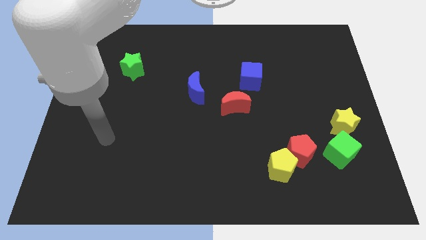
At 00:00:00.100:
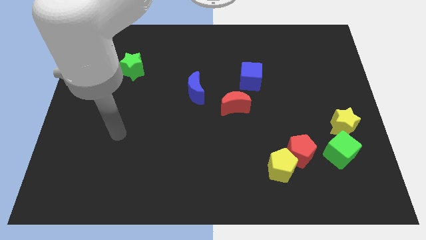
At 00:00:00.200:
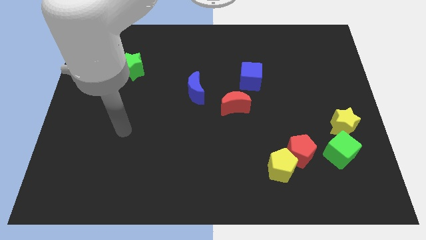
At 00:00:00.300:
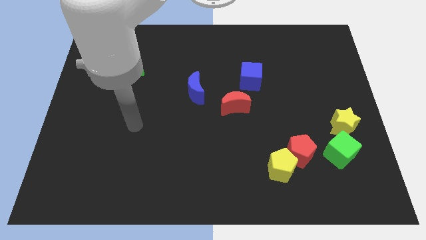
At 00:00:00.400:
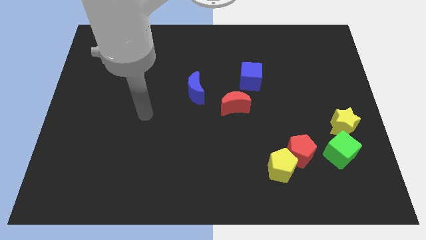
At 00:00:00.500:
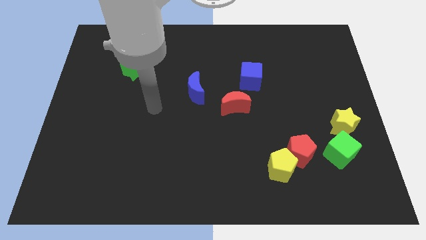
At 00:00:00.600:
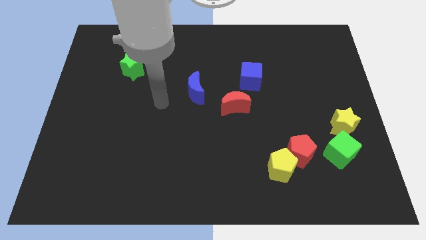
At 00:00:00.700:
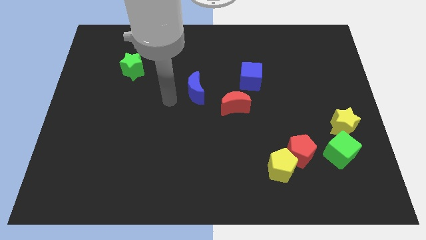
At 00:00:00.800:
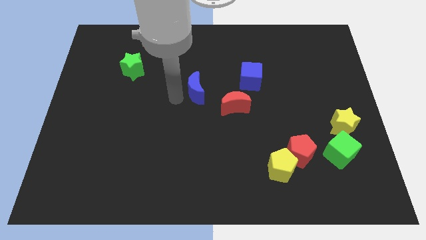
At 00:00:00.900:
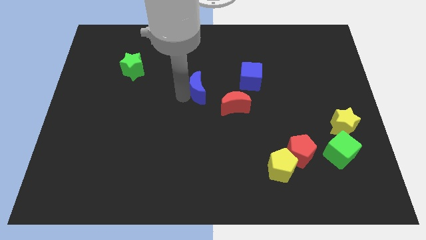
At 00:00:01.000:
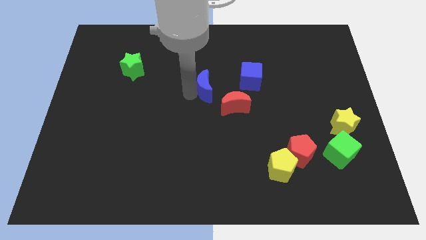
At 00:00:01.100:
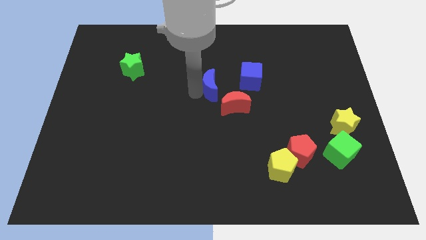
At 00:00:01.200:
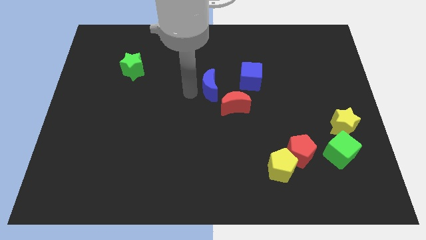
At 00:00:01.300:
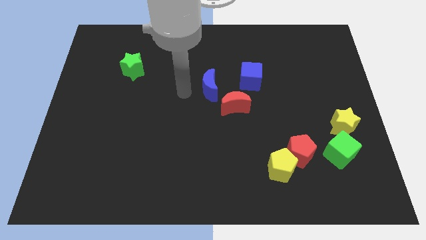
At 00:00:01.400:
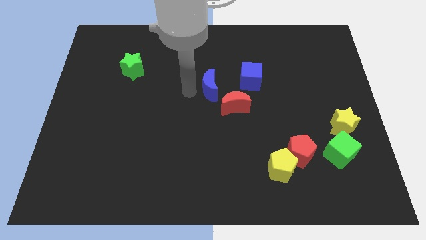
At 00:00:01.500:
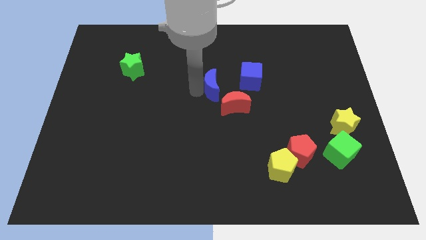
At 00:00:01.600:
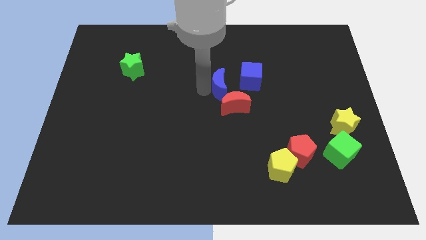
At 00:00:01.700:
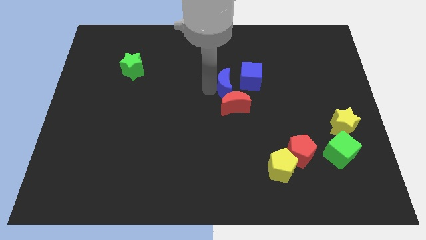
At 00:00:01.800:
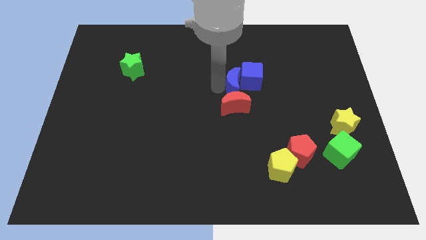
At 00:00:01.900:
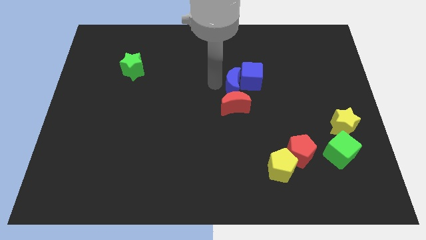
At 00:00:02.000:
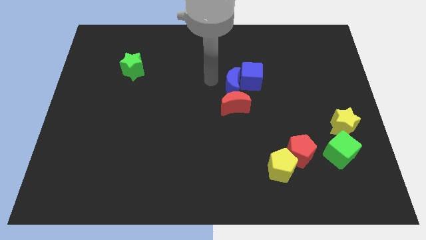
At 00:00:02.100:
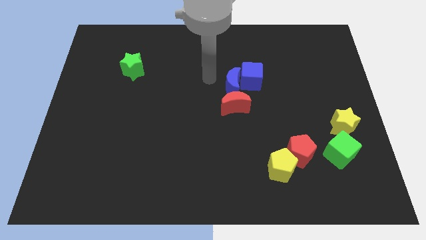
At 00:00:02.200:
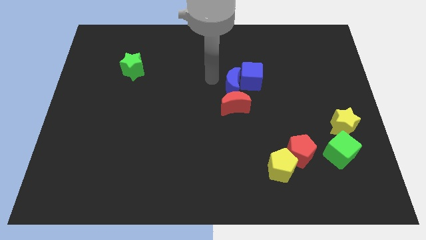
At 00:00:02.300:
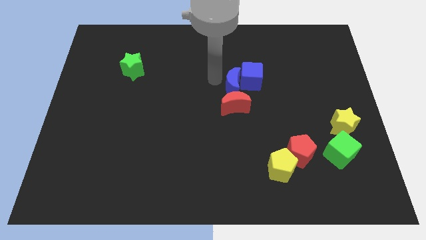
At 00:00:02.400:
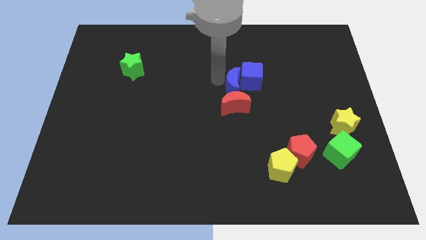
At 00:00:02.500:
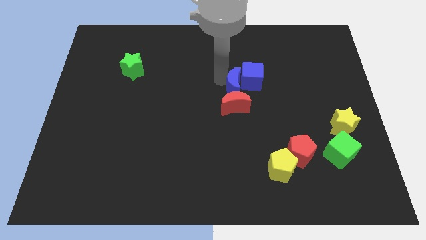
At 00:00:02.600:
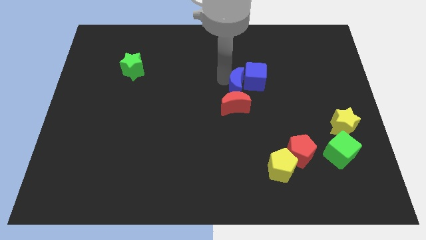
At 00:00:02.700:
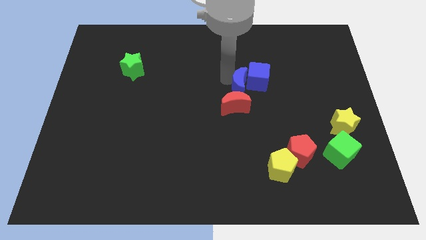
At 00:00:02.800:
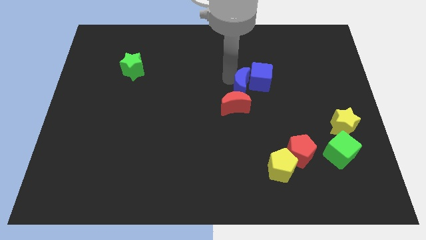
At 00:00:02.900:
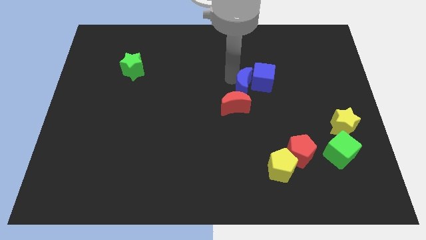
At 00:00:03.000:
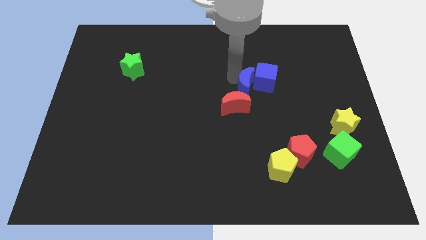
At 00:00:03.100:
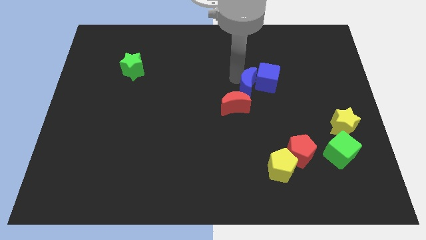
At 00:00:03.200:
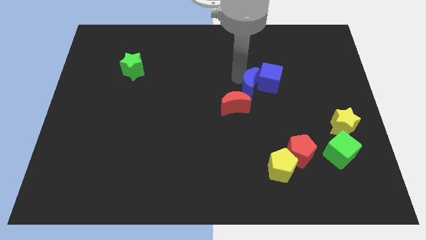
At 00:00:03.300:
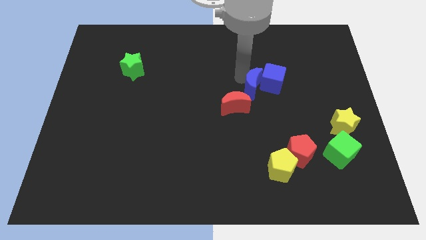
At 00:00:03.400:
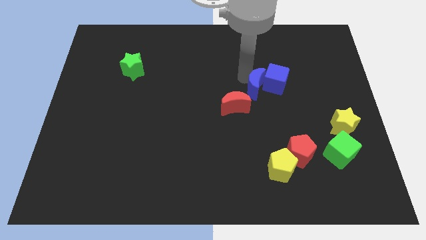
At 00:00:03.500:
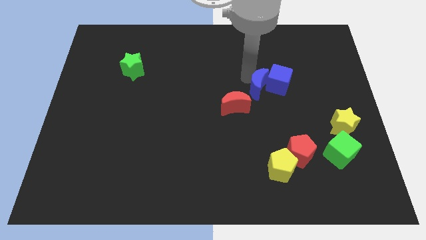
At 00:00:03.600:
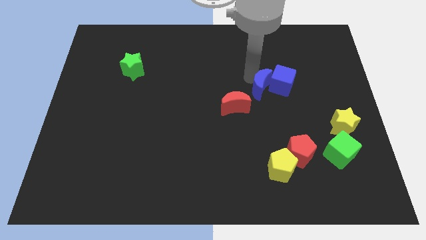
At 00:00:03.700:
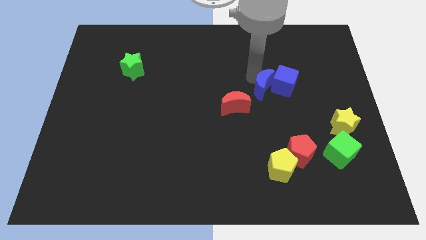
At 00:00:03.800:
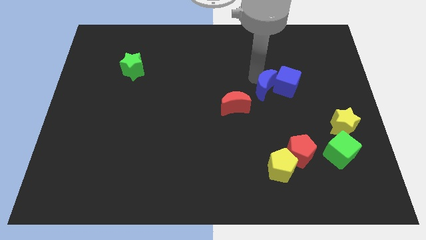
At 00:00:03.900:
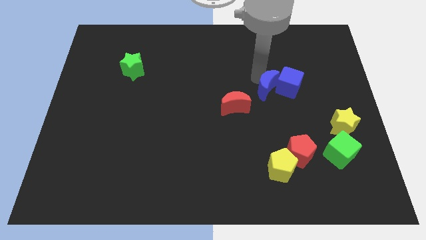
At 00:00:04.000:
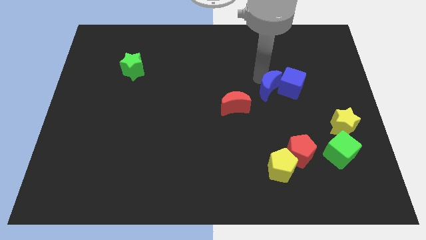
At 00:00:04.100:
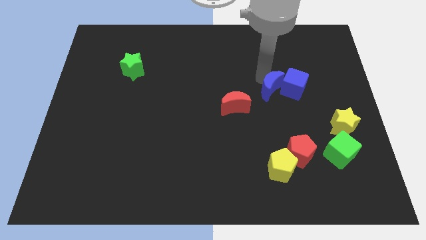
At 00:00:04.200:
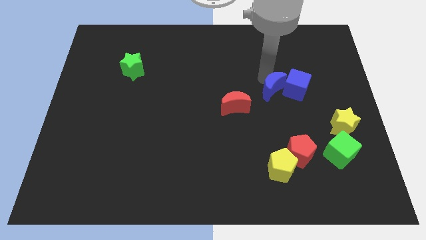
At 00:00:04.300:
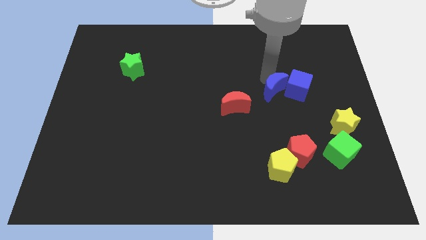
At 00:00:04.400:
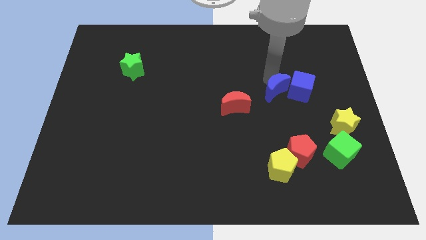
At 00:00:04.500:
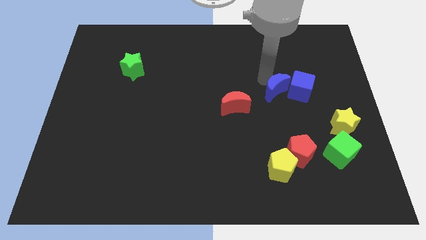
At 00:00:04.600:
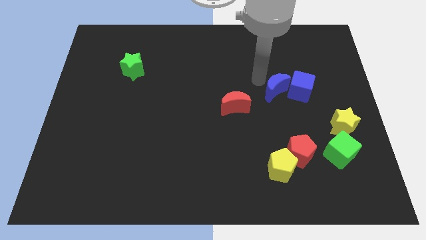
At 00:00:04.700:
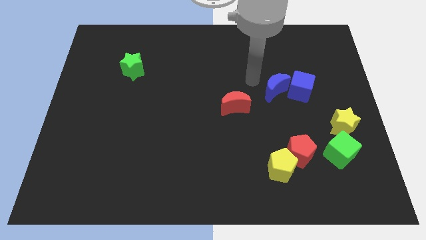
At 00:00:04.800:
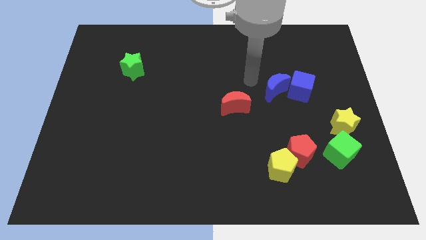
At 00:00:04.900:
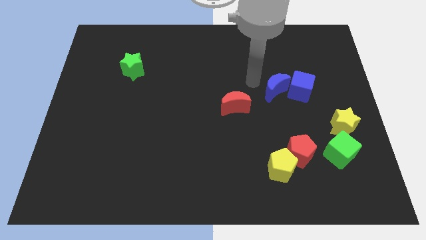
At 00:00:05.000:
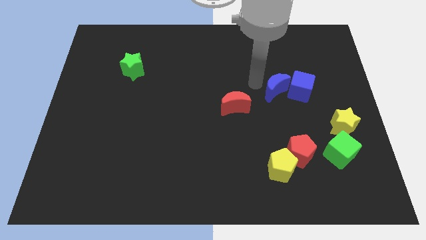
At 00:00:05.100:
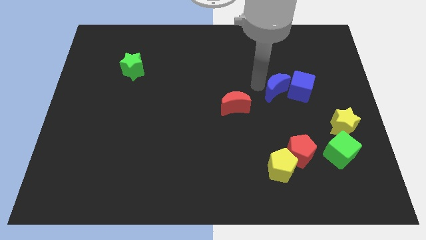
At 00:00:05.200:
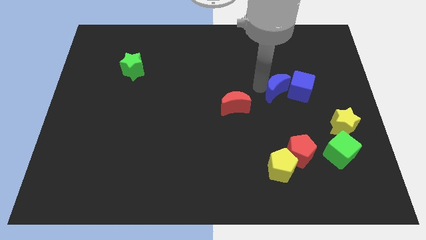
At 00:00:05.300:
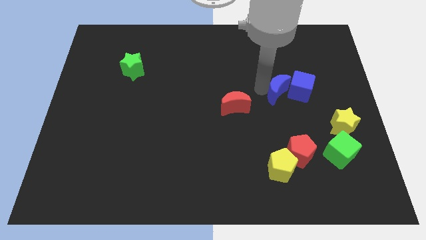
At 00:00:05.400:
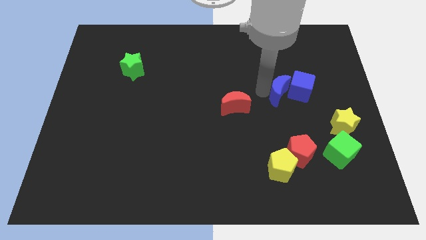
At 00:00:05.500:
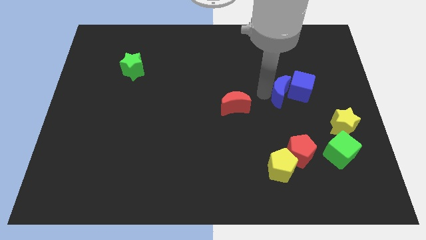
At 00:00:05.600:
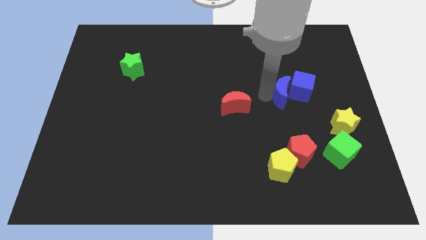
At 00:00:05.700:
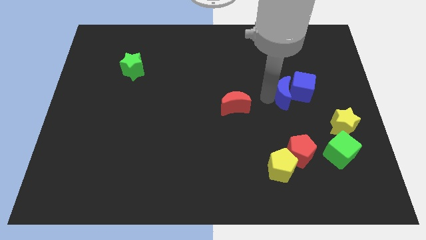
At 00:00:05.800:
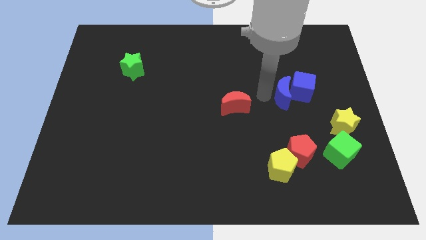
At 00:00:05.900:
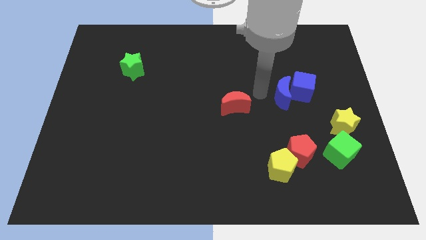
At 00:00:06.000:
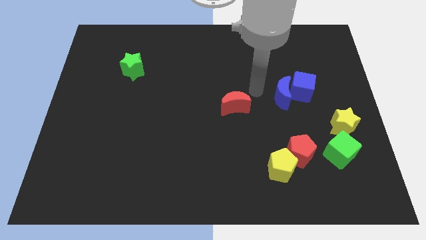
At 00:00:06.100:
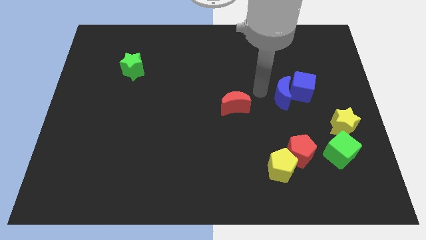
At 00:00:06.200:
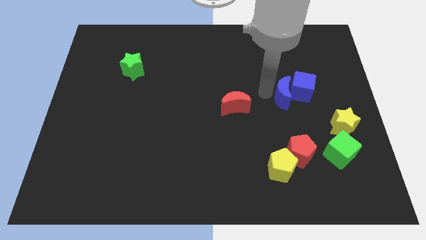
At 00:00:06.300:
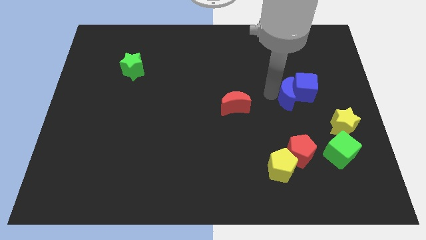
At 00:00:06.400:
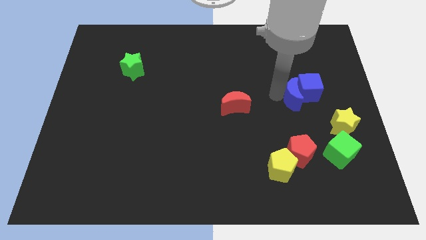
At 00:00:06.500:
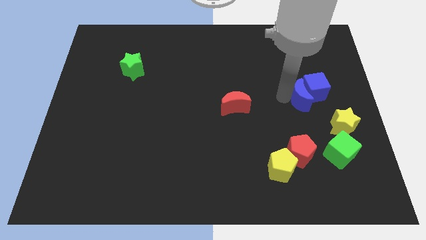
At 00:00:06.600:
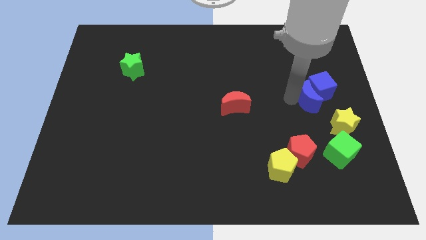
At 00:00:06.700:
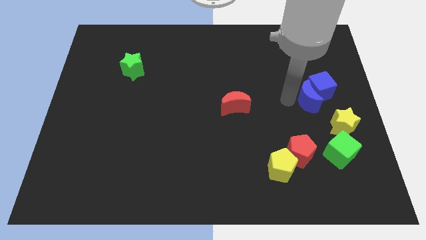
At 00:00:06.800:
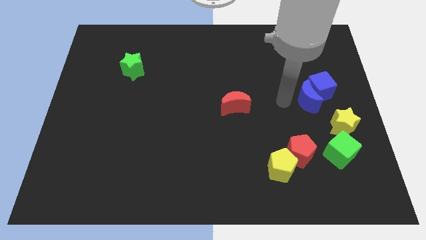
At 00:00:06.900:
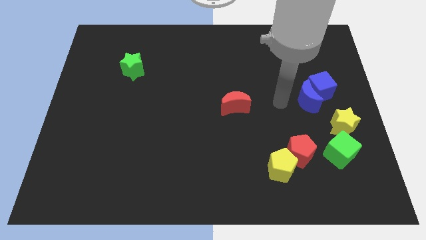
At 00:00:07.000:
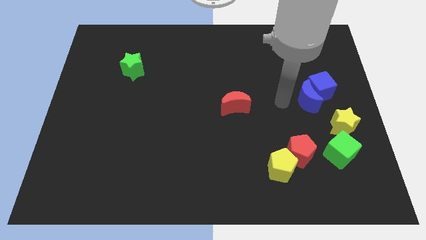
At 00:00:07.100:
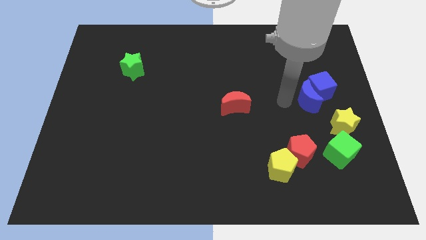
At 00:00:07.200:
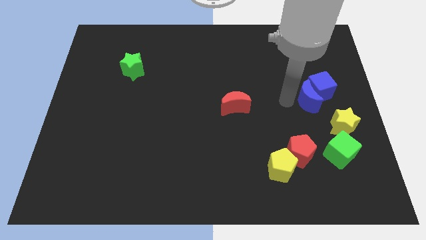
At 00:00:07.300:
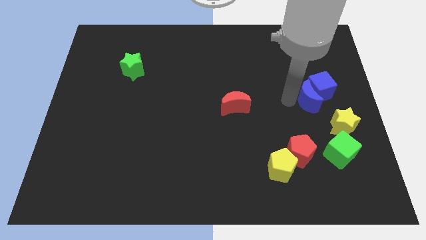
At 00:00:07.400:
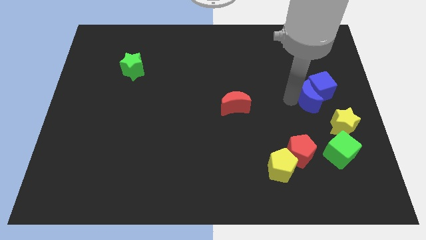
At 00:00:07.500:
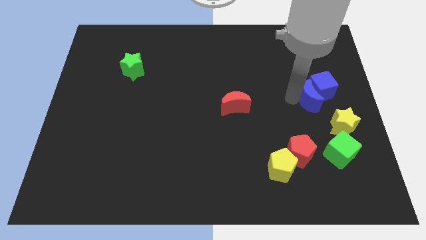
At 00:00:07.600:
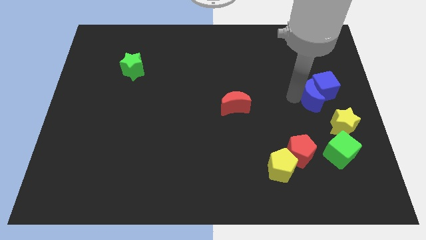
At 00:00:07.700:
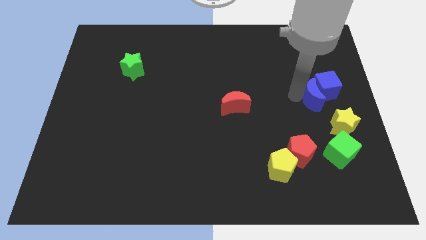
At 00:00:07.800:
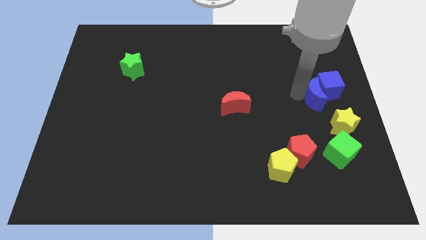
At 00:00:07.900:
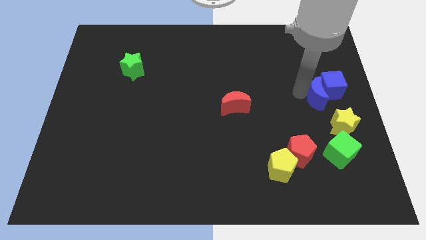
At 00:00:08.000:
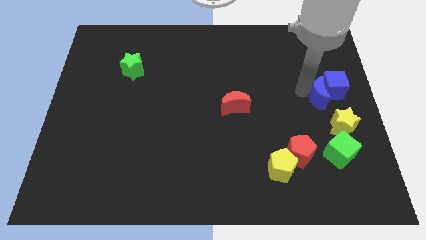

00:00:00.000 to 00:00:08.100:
slide the blue moon to the right side
